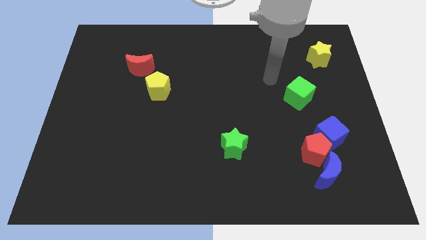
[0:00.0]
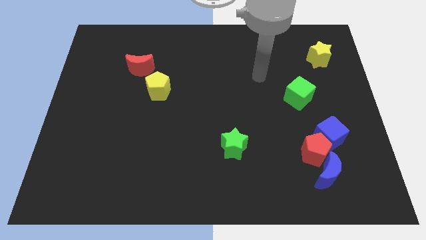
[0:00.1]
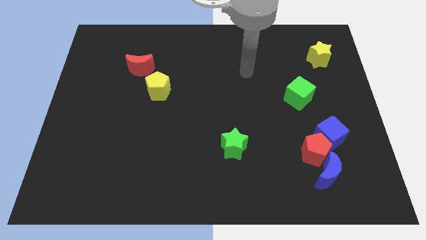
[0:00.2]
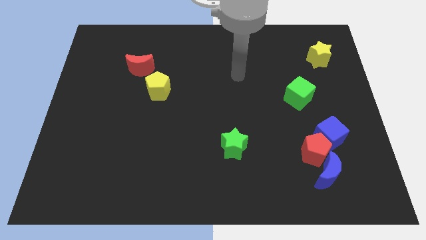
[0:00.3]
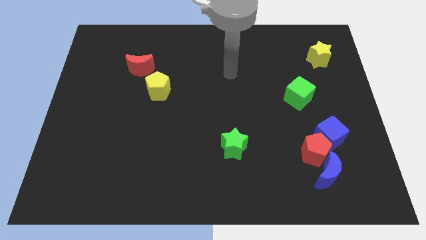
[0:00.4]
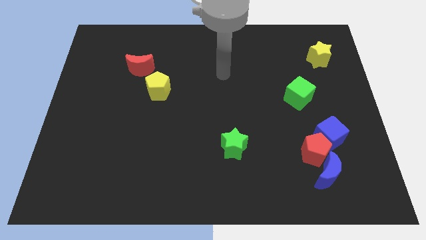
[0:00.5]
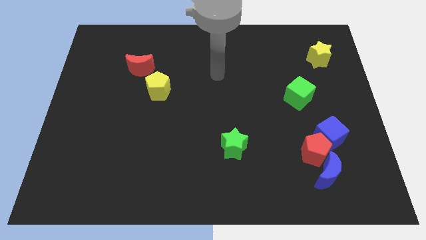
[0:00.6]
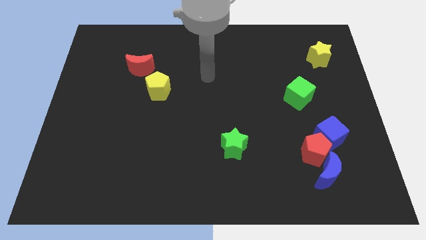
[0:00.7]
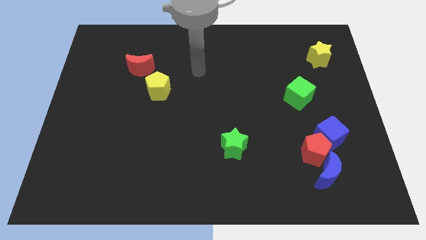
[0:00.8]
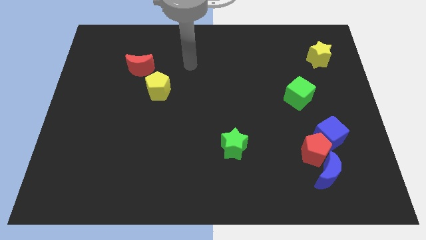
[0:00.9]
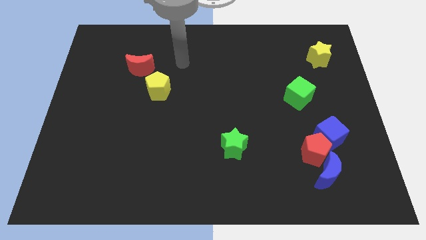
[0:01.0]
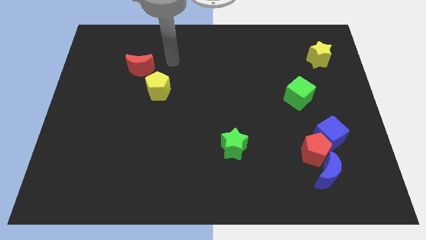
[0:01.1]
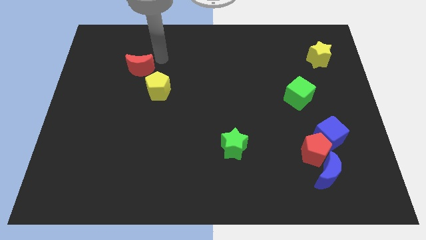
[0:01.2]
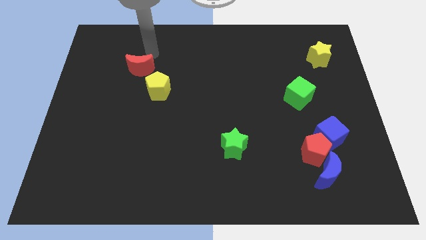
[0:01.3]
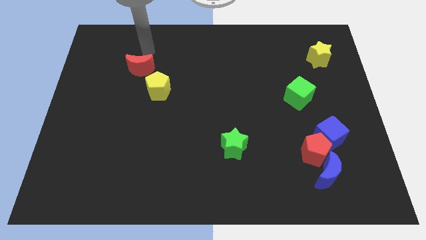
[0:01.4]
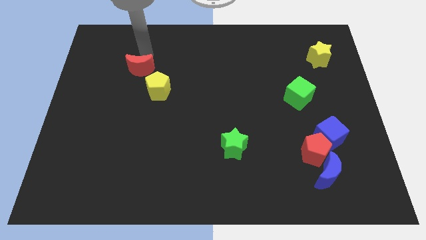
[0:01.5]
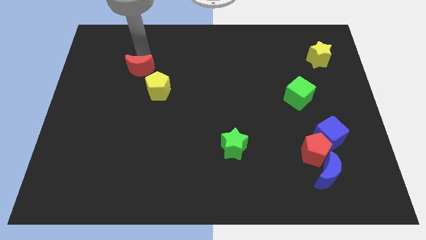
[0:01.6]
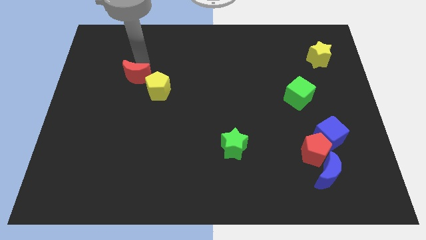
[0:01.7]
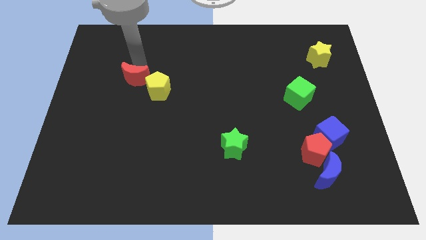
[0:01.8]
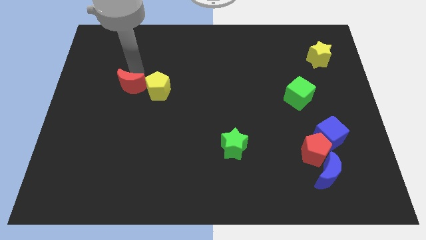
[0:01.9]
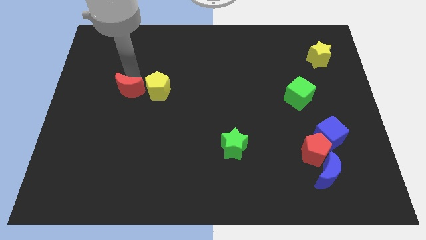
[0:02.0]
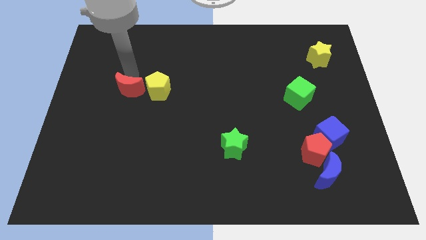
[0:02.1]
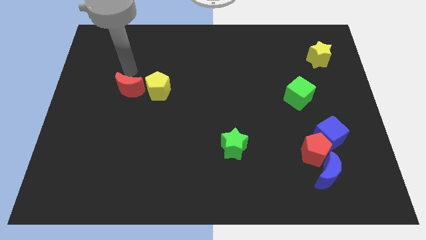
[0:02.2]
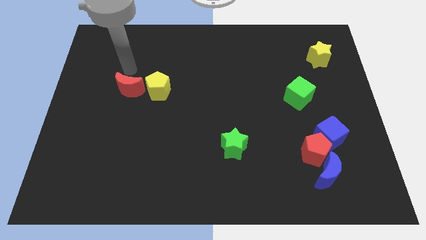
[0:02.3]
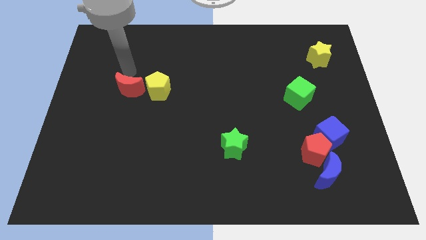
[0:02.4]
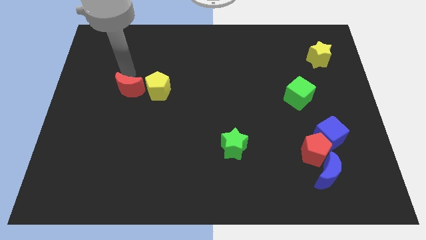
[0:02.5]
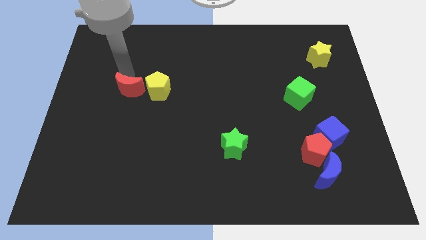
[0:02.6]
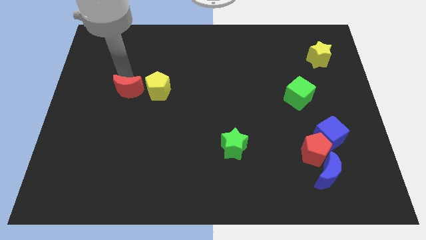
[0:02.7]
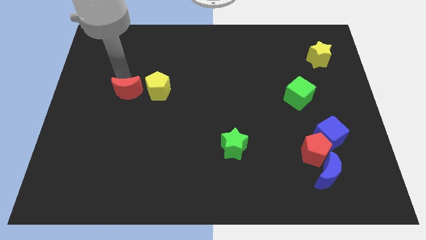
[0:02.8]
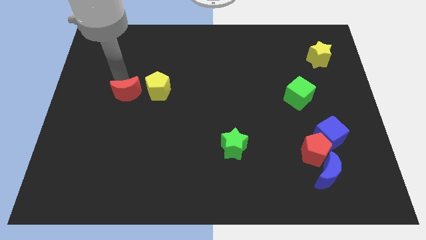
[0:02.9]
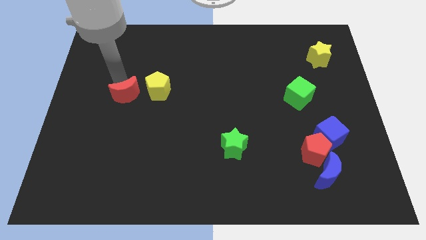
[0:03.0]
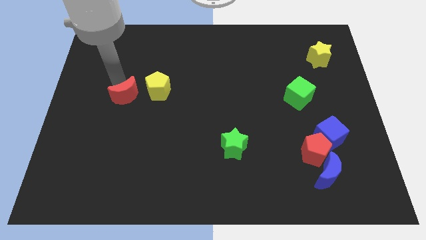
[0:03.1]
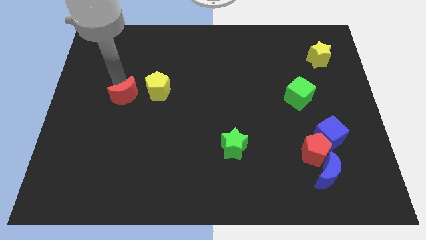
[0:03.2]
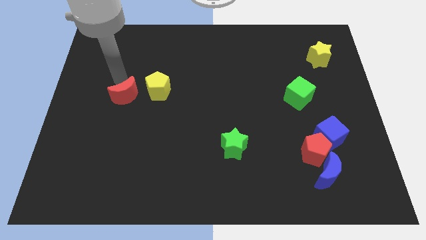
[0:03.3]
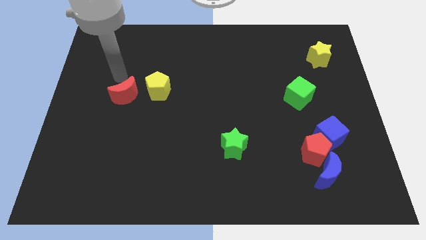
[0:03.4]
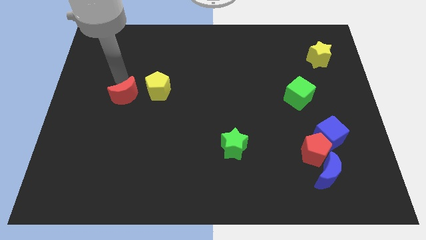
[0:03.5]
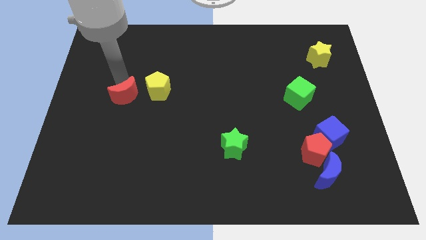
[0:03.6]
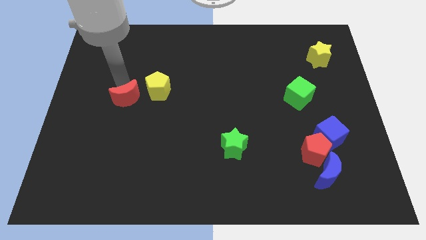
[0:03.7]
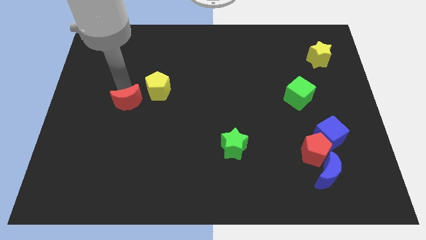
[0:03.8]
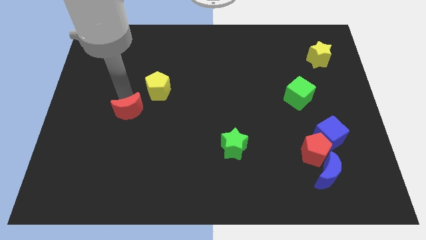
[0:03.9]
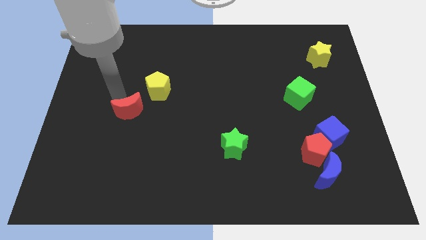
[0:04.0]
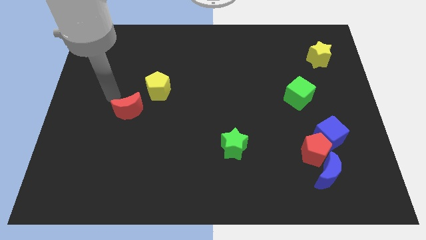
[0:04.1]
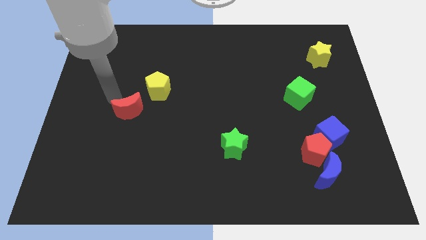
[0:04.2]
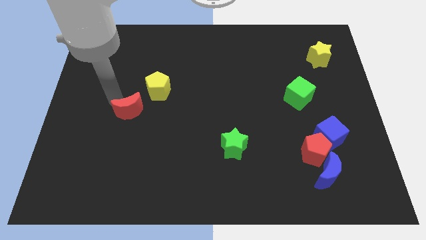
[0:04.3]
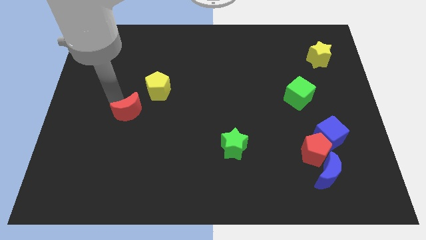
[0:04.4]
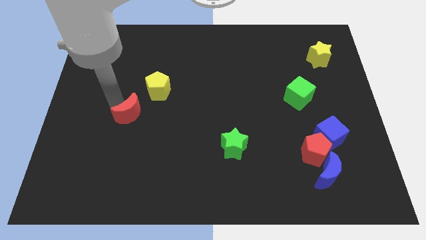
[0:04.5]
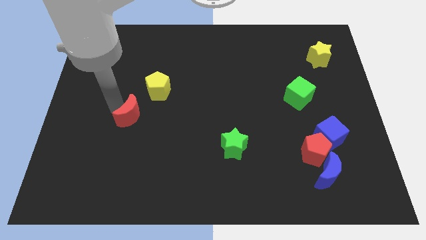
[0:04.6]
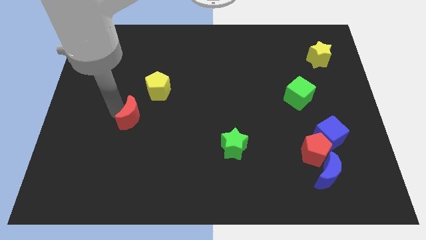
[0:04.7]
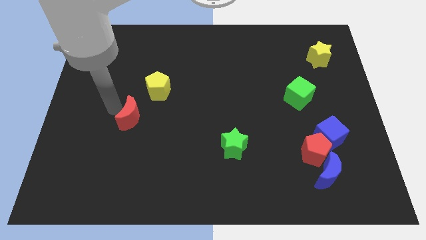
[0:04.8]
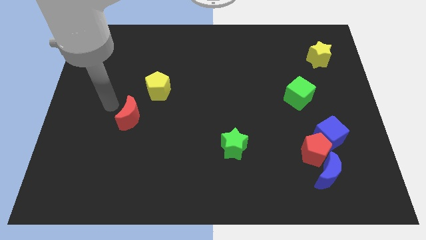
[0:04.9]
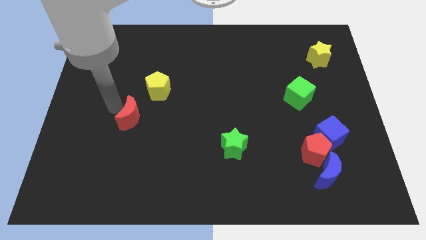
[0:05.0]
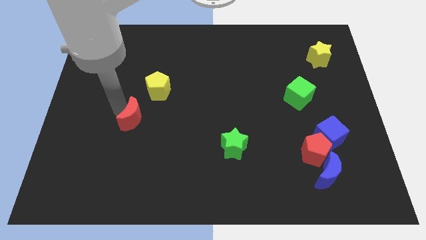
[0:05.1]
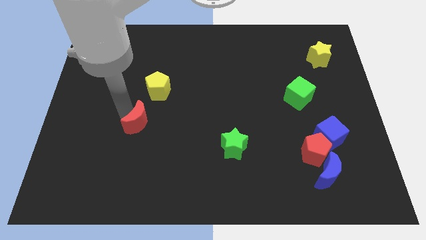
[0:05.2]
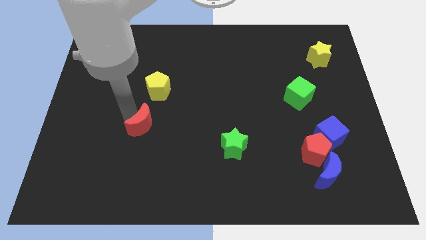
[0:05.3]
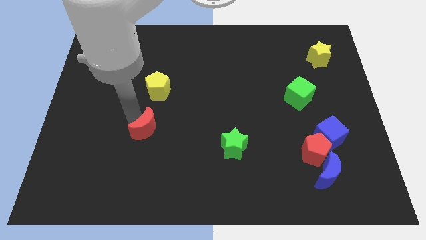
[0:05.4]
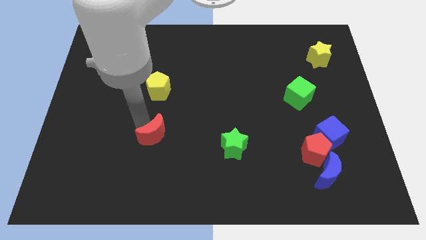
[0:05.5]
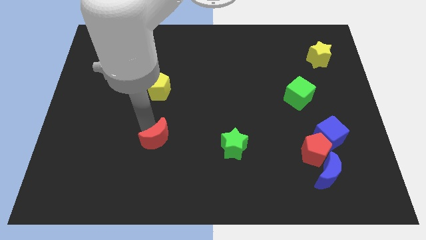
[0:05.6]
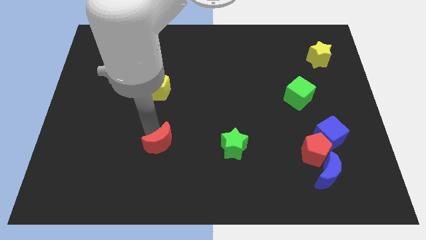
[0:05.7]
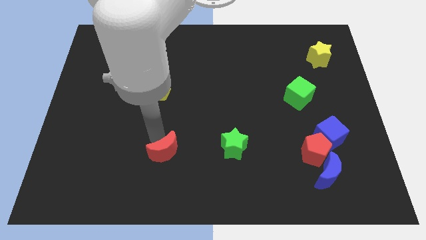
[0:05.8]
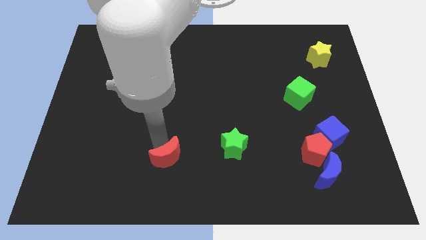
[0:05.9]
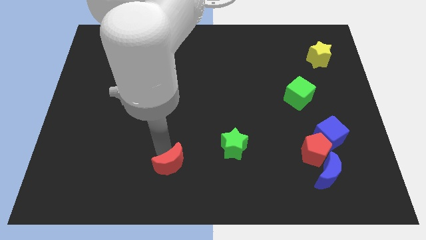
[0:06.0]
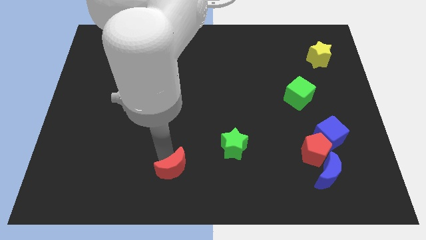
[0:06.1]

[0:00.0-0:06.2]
push the red moon to the bottom
